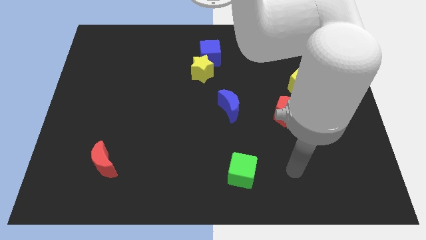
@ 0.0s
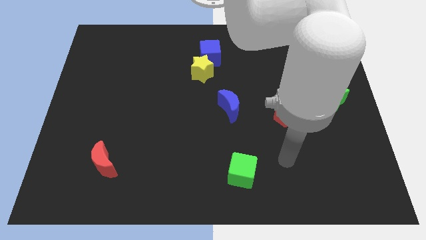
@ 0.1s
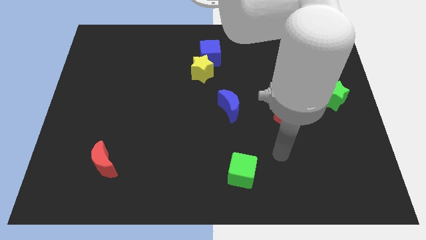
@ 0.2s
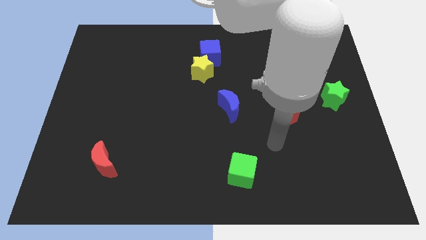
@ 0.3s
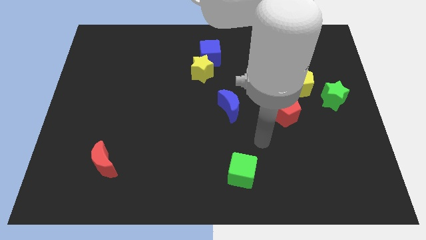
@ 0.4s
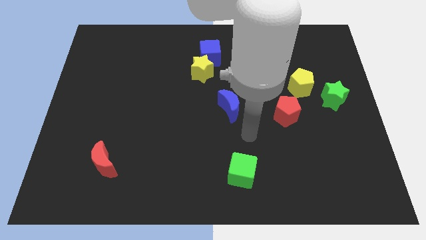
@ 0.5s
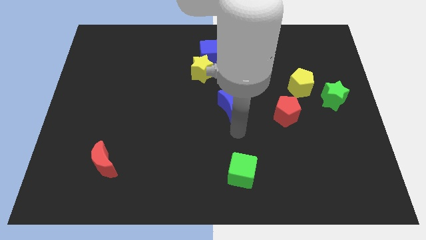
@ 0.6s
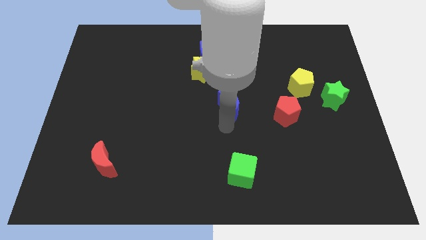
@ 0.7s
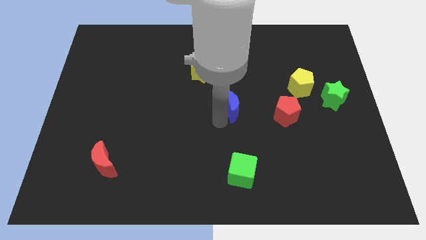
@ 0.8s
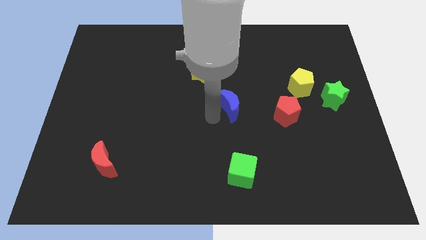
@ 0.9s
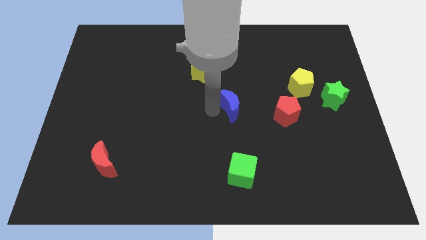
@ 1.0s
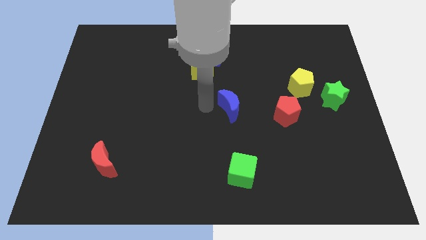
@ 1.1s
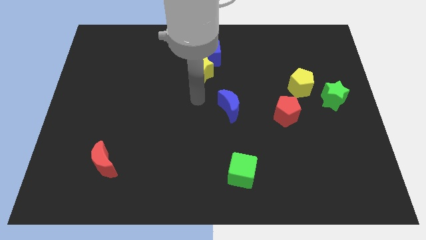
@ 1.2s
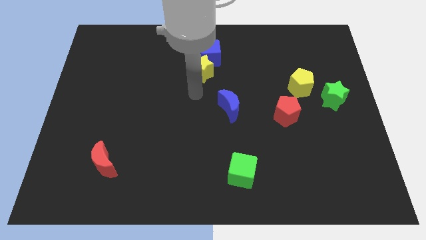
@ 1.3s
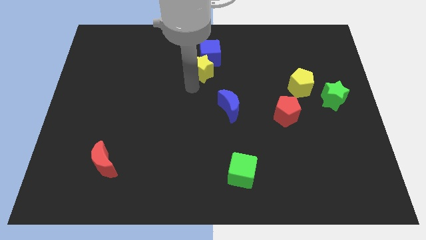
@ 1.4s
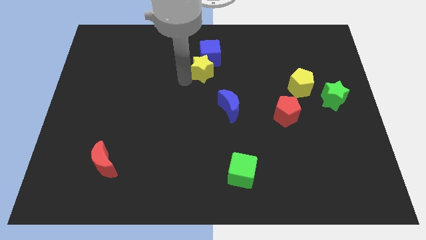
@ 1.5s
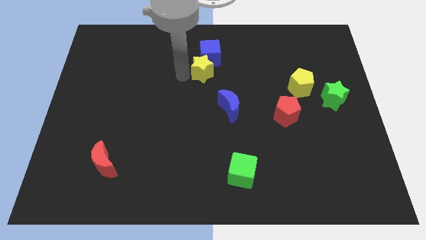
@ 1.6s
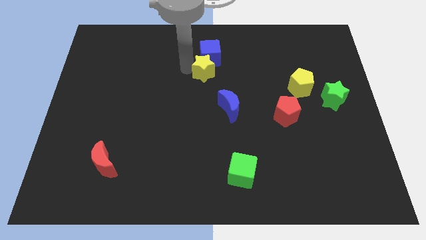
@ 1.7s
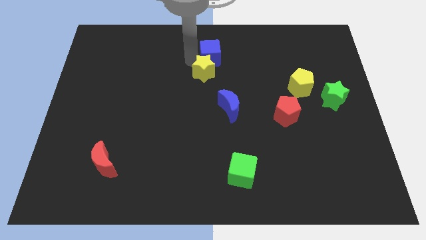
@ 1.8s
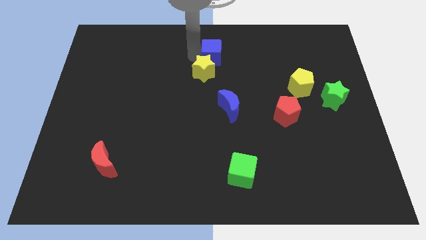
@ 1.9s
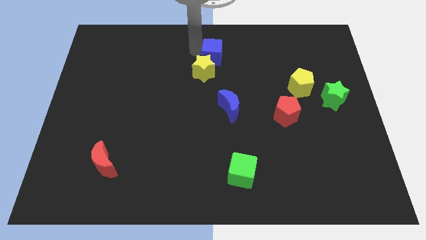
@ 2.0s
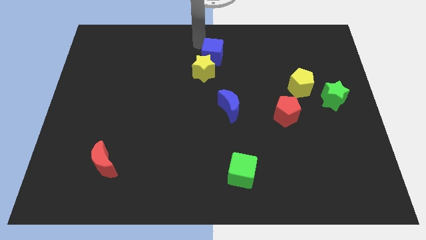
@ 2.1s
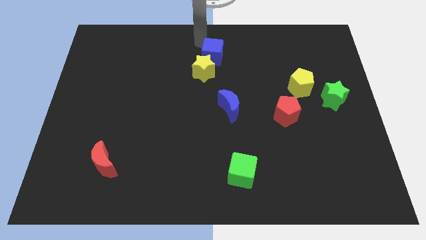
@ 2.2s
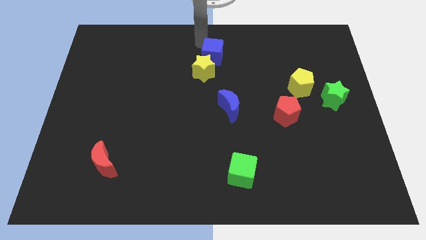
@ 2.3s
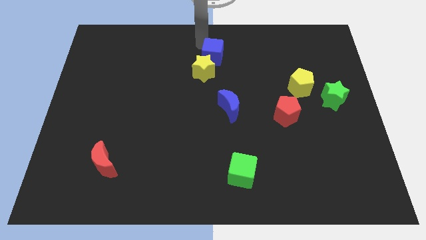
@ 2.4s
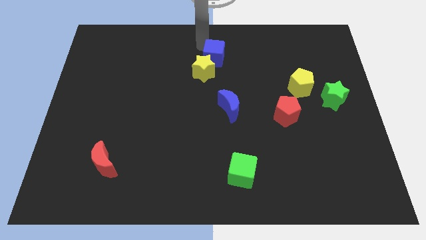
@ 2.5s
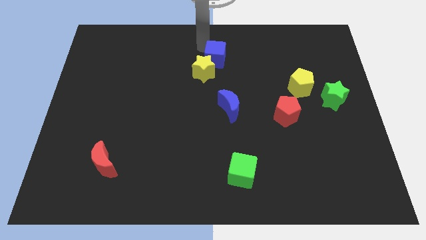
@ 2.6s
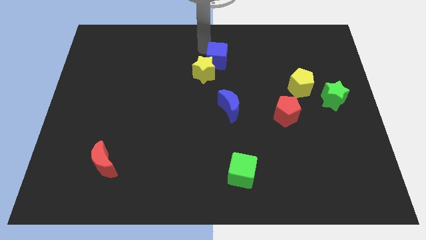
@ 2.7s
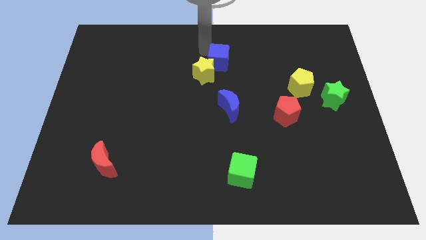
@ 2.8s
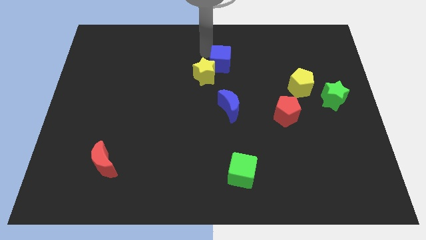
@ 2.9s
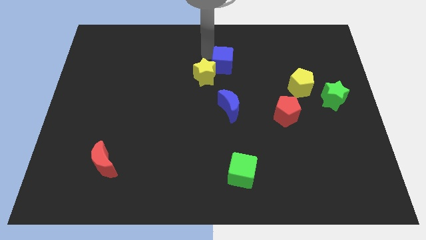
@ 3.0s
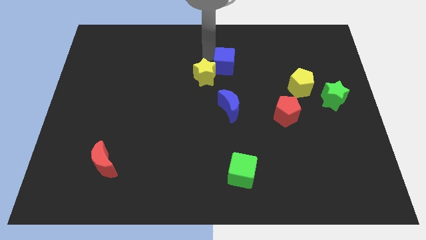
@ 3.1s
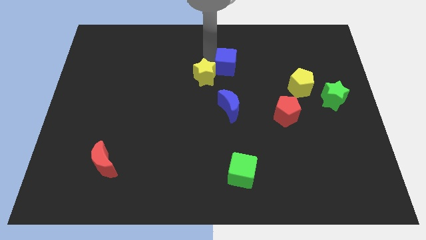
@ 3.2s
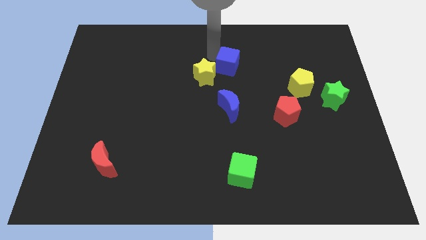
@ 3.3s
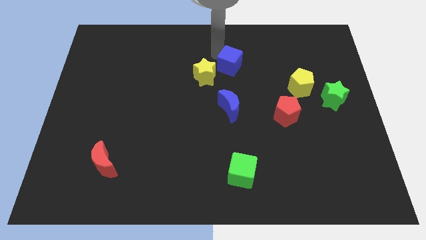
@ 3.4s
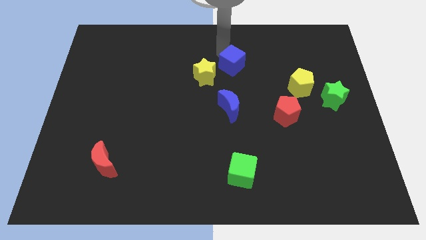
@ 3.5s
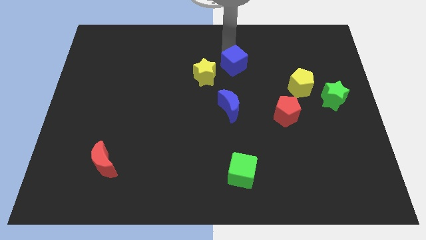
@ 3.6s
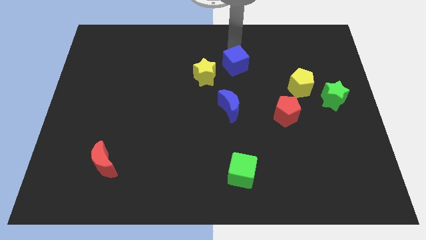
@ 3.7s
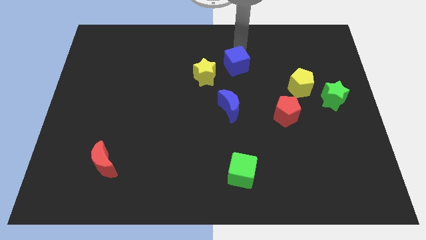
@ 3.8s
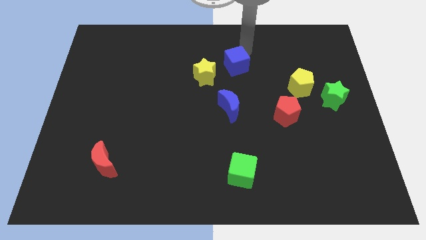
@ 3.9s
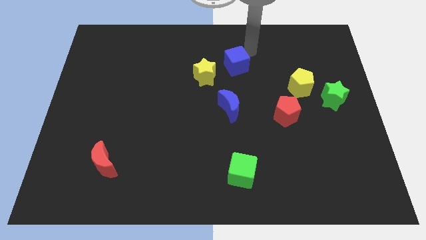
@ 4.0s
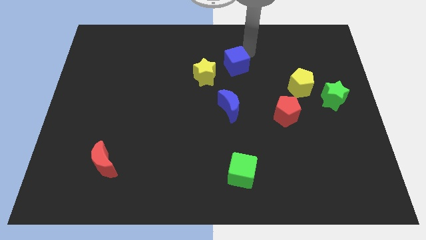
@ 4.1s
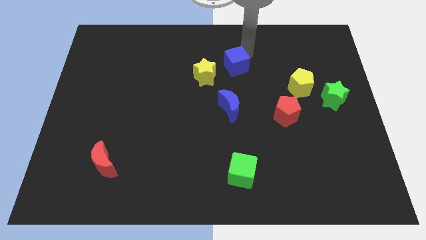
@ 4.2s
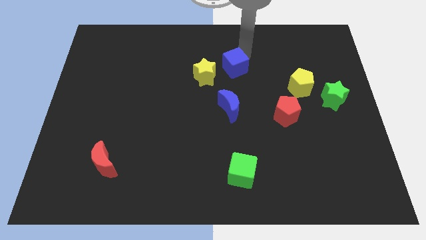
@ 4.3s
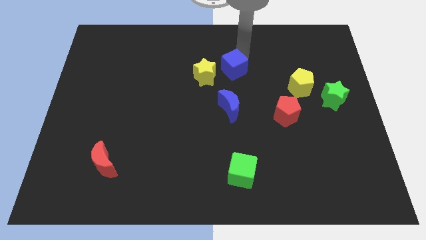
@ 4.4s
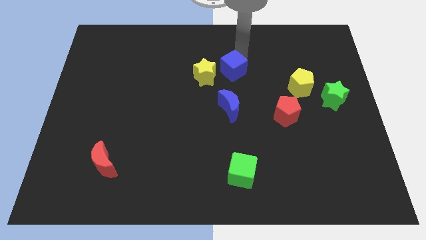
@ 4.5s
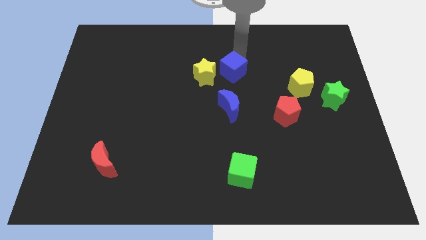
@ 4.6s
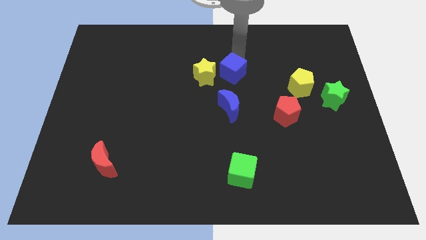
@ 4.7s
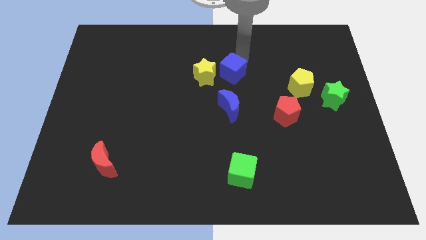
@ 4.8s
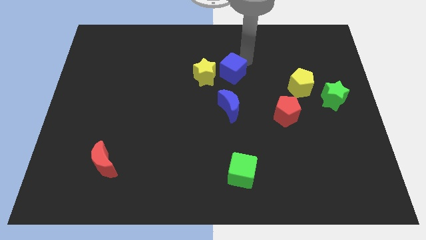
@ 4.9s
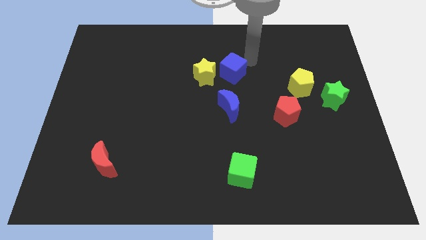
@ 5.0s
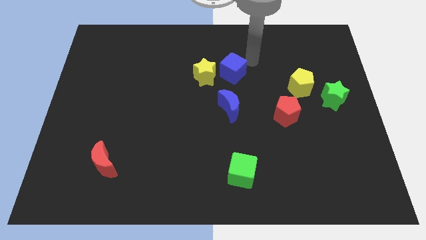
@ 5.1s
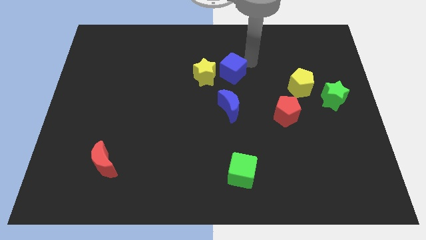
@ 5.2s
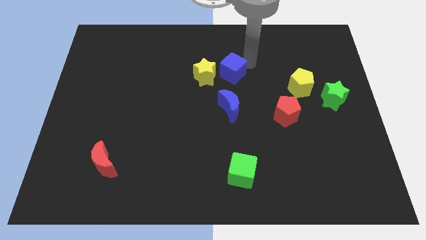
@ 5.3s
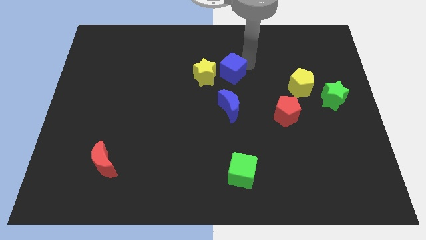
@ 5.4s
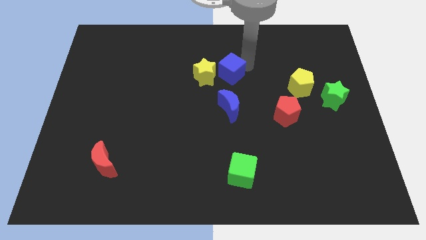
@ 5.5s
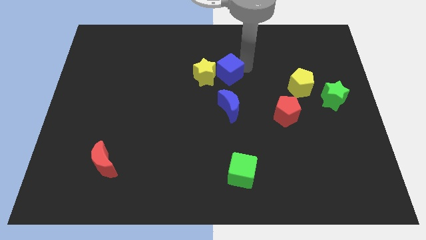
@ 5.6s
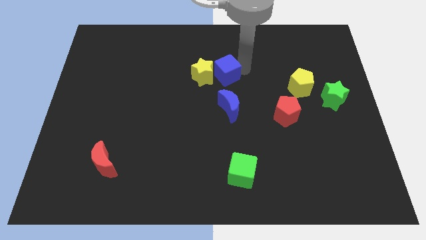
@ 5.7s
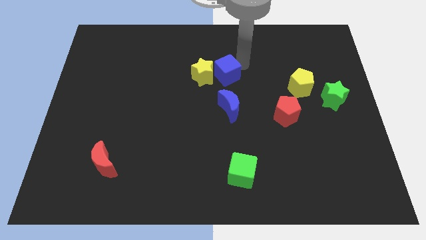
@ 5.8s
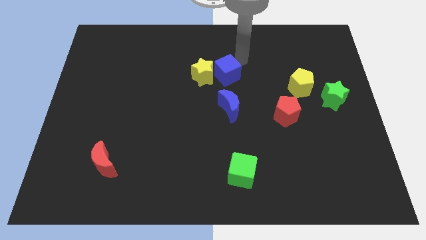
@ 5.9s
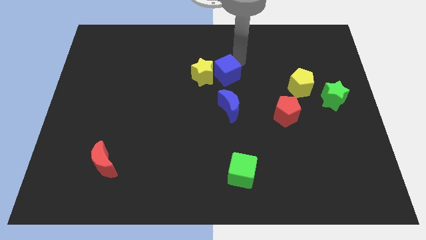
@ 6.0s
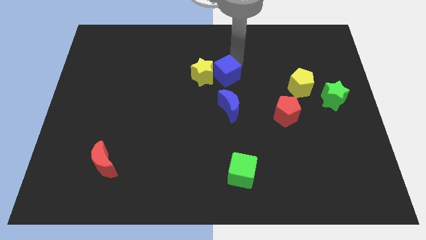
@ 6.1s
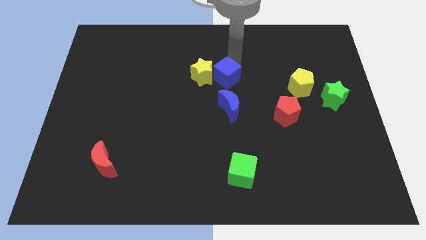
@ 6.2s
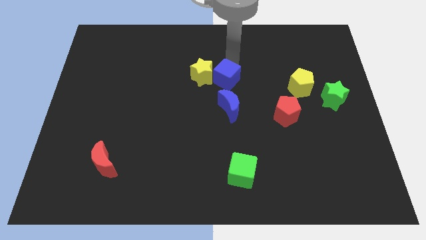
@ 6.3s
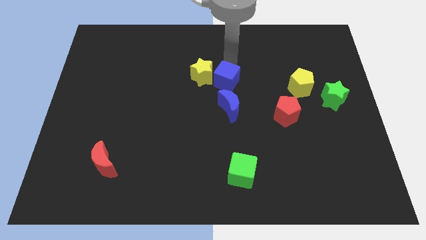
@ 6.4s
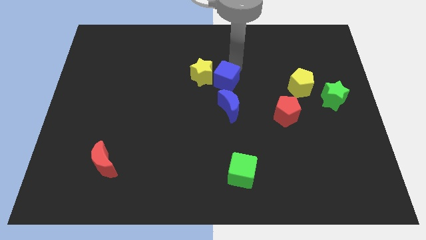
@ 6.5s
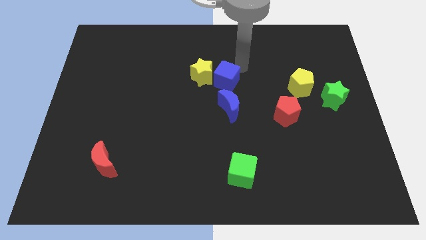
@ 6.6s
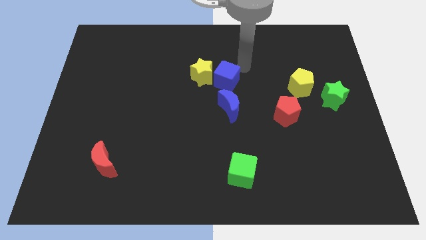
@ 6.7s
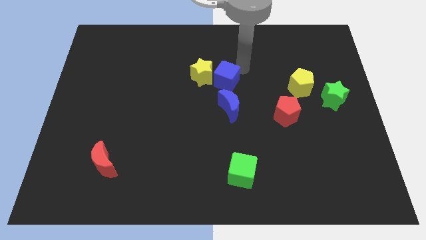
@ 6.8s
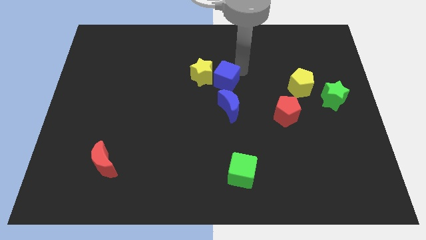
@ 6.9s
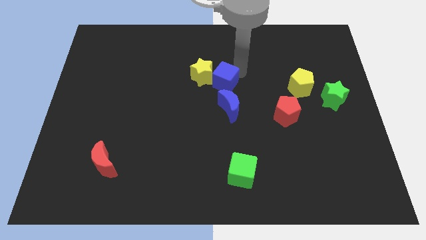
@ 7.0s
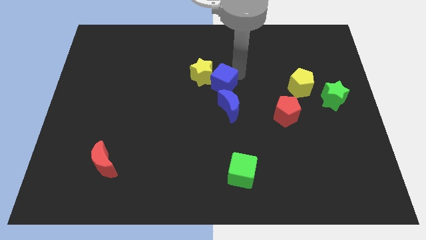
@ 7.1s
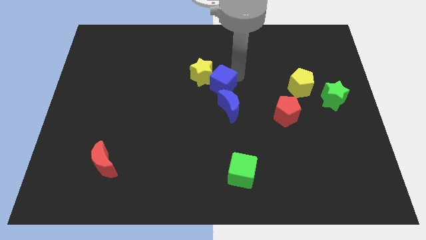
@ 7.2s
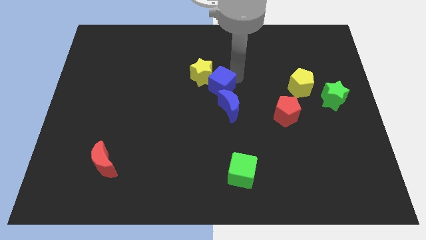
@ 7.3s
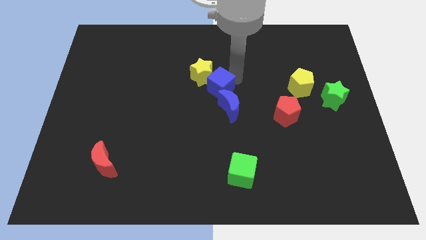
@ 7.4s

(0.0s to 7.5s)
slide the blue cube to the bottom side of the yellow star
